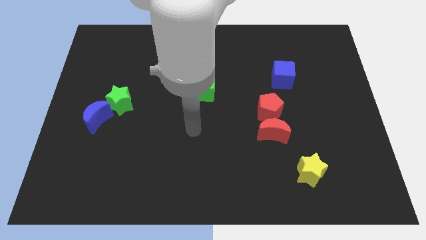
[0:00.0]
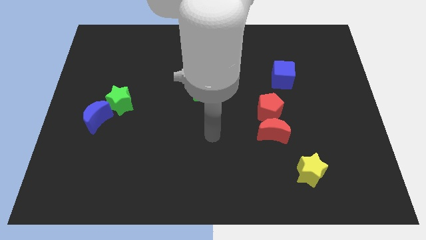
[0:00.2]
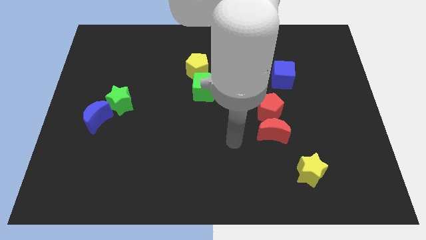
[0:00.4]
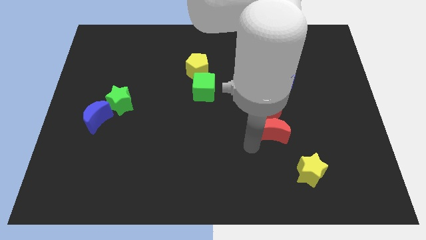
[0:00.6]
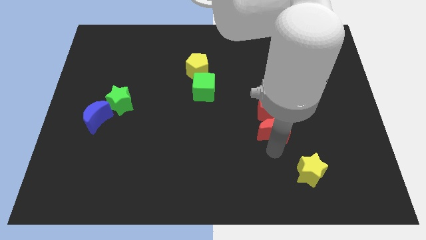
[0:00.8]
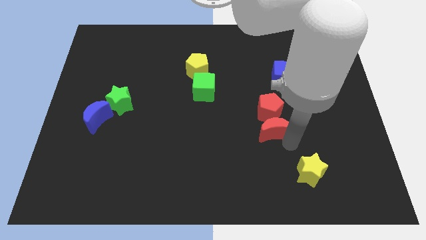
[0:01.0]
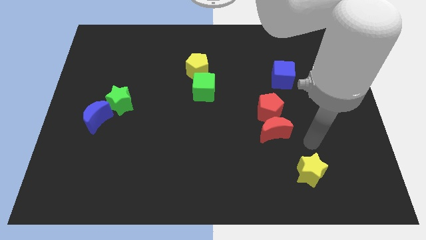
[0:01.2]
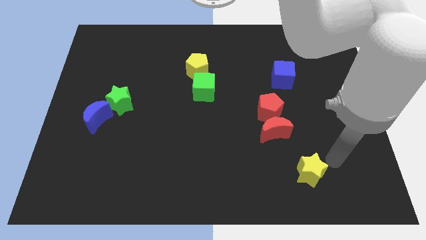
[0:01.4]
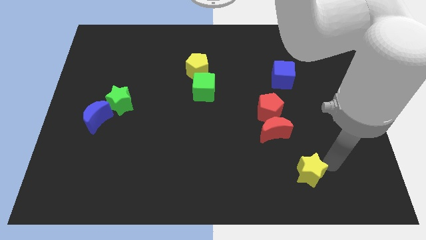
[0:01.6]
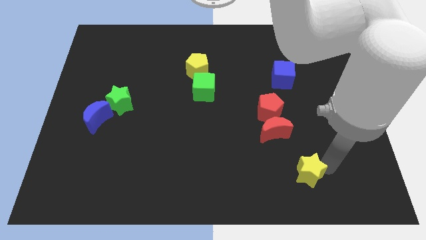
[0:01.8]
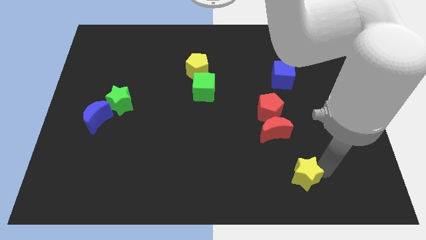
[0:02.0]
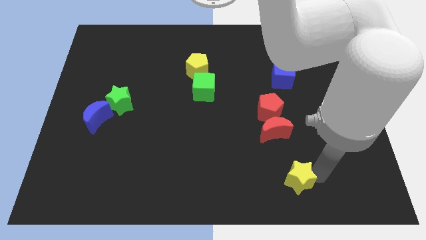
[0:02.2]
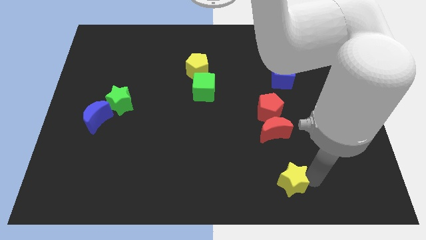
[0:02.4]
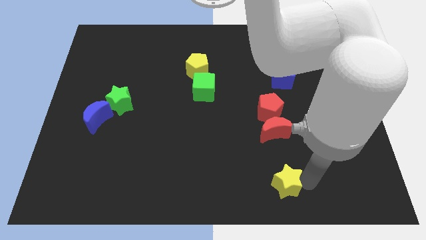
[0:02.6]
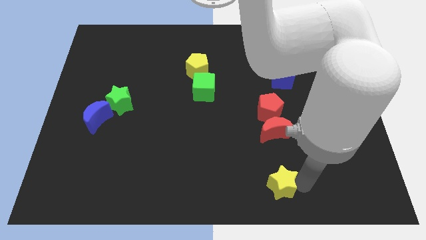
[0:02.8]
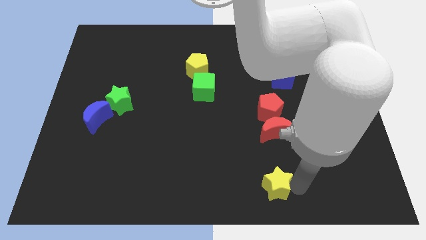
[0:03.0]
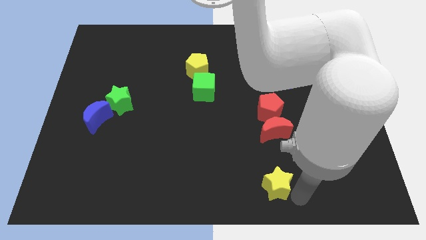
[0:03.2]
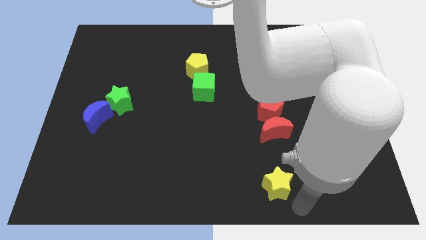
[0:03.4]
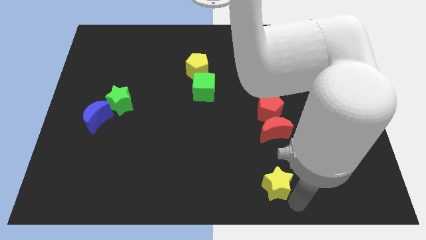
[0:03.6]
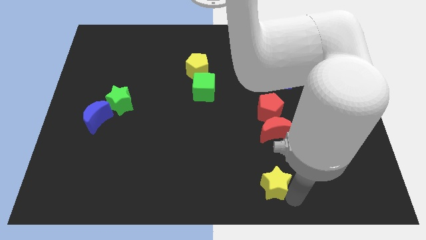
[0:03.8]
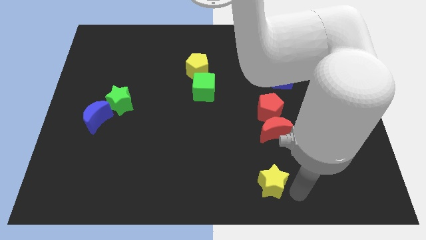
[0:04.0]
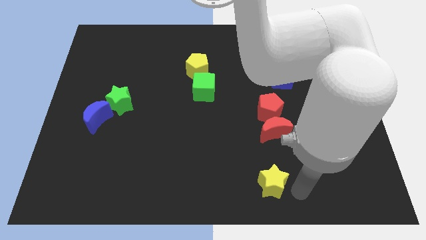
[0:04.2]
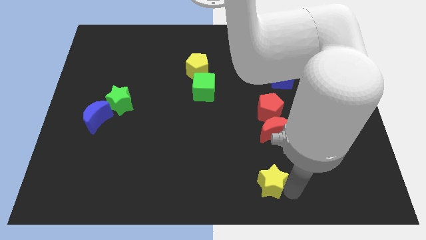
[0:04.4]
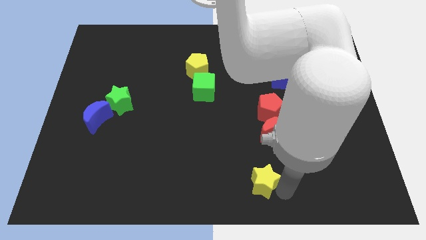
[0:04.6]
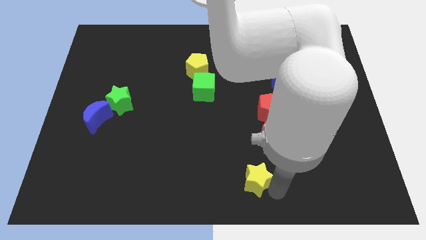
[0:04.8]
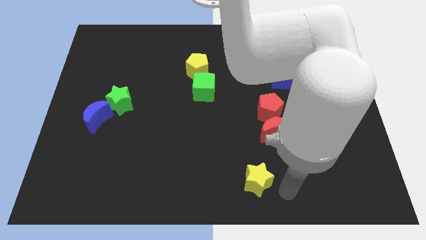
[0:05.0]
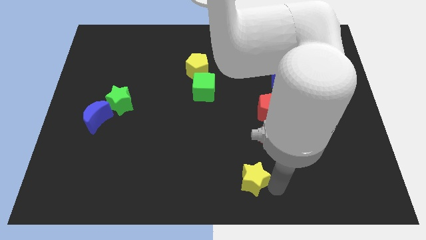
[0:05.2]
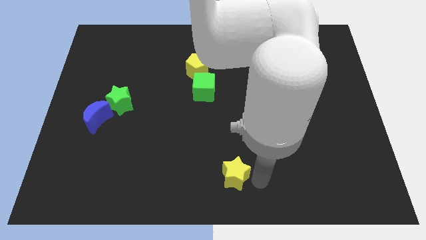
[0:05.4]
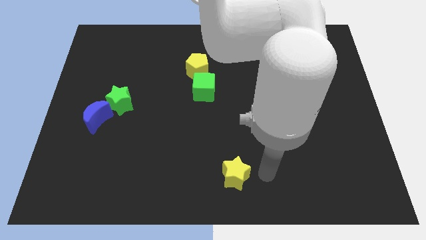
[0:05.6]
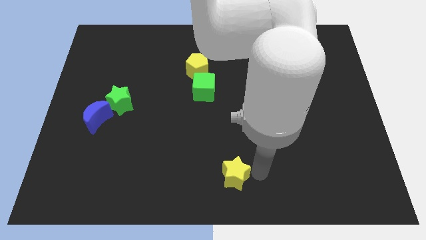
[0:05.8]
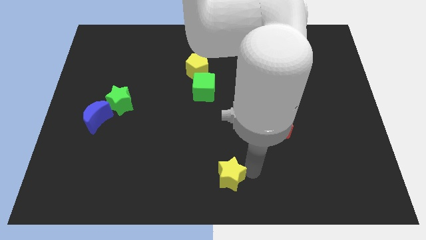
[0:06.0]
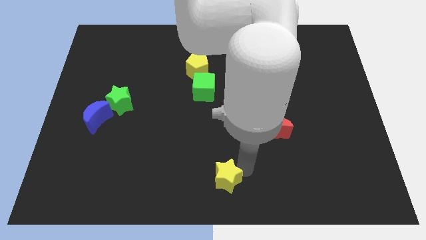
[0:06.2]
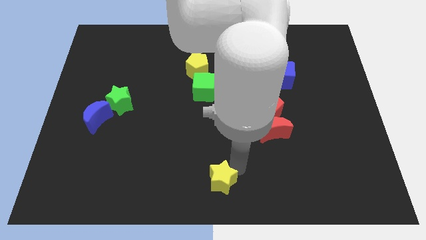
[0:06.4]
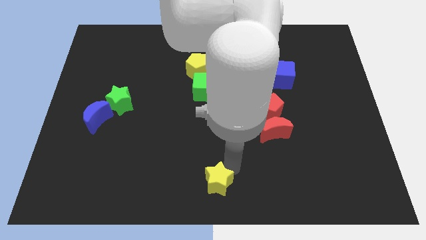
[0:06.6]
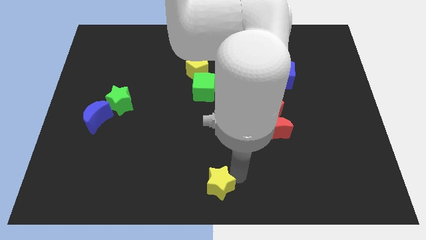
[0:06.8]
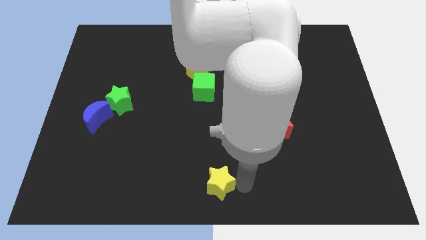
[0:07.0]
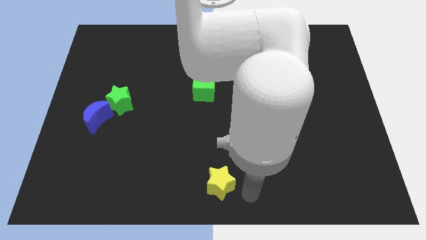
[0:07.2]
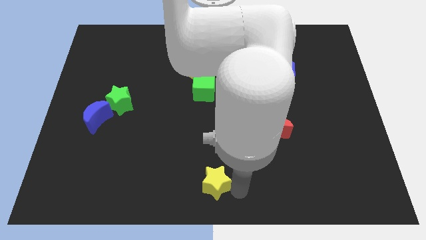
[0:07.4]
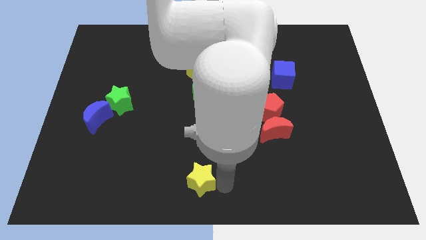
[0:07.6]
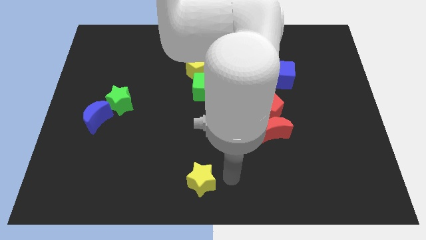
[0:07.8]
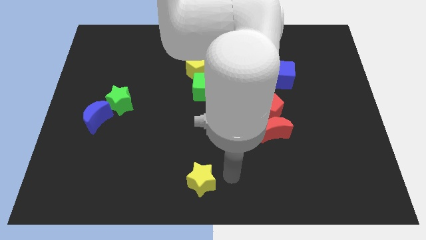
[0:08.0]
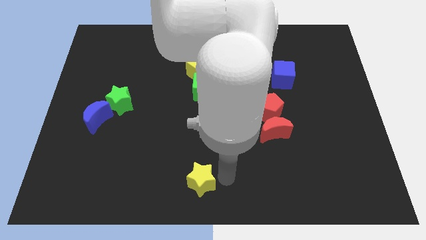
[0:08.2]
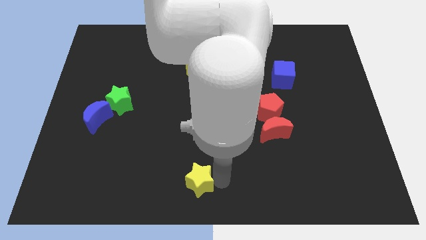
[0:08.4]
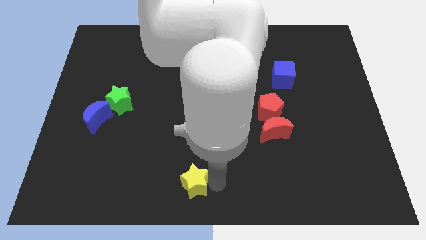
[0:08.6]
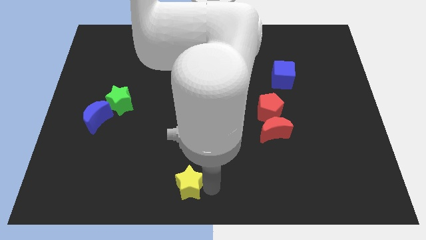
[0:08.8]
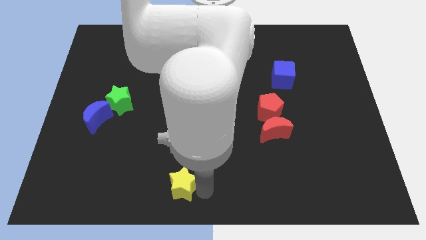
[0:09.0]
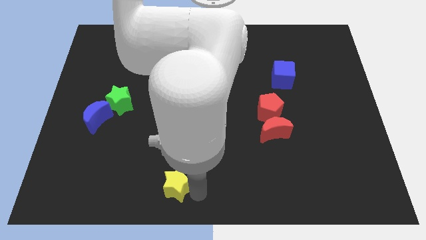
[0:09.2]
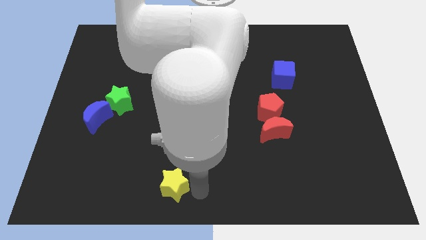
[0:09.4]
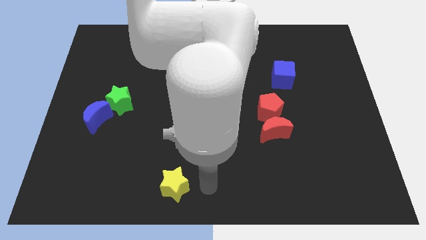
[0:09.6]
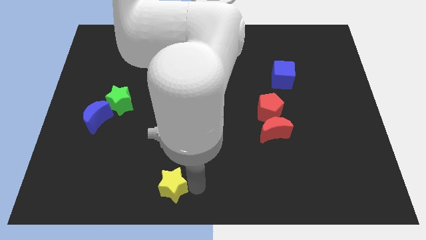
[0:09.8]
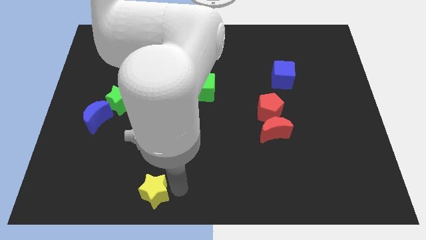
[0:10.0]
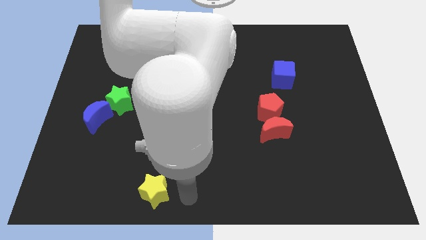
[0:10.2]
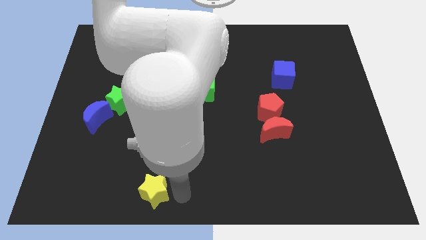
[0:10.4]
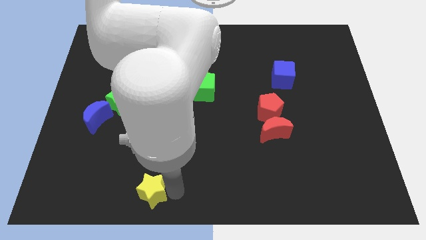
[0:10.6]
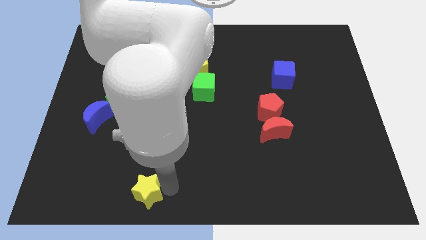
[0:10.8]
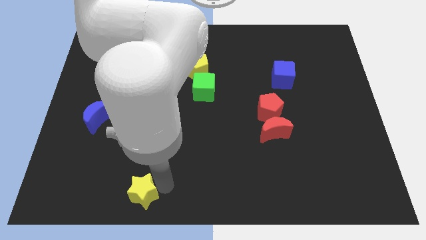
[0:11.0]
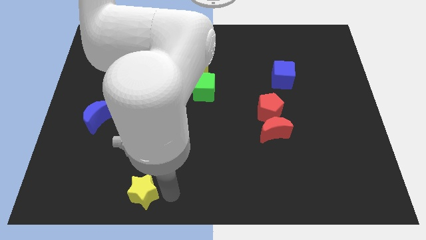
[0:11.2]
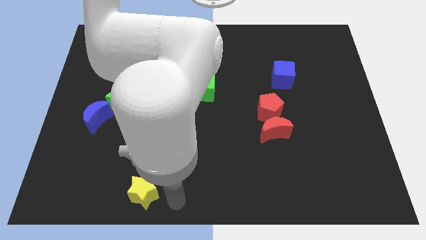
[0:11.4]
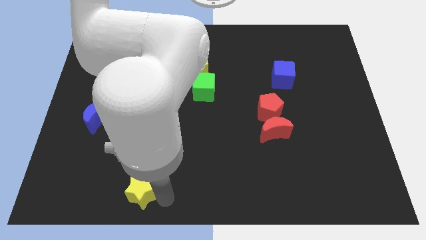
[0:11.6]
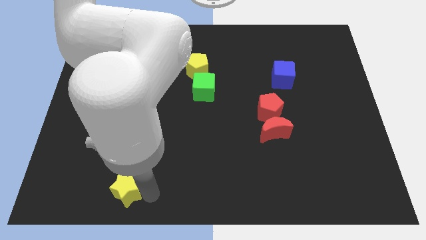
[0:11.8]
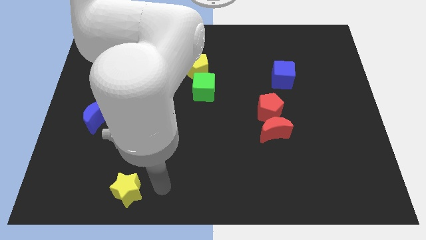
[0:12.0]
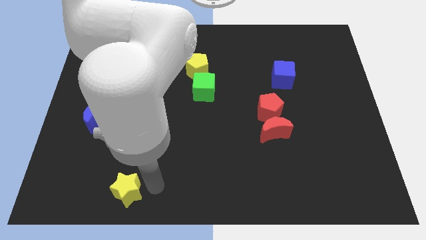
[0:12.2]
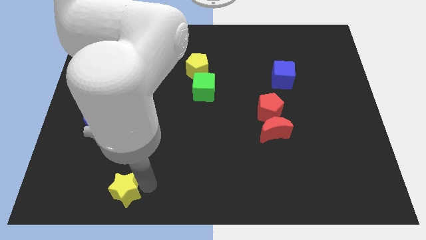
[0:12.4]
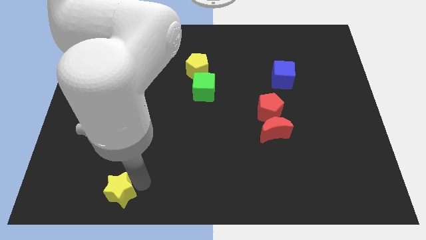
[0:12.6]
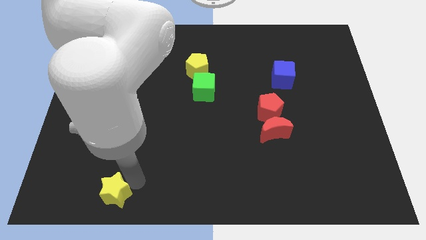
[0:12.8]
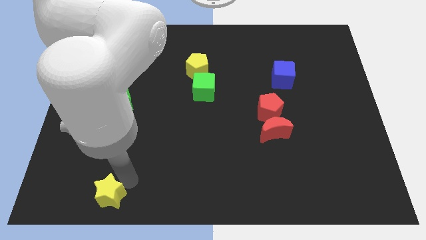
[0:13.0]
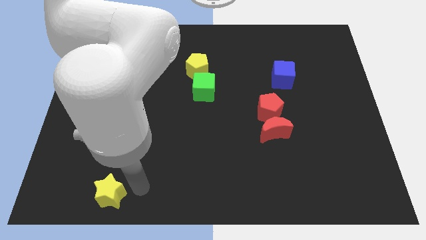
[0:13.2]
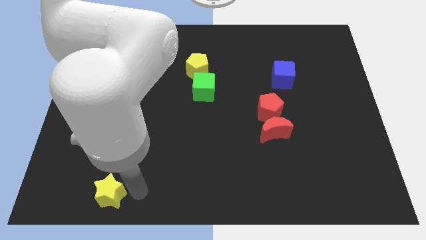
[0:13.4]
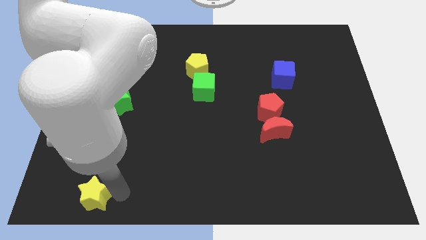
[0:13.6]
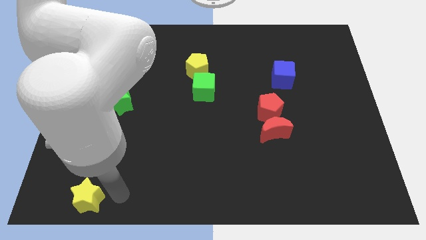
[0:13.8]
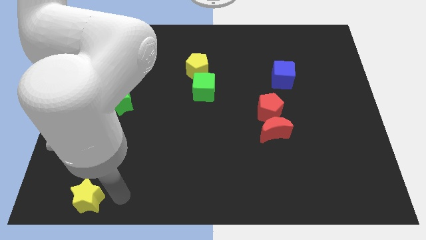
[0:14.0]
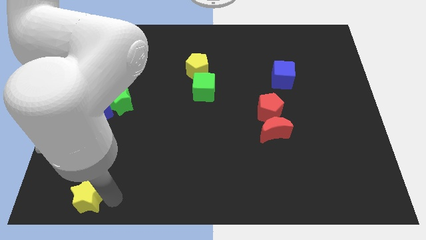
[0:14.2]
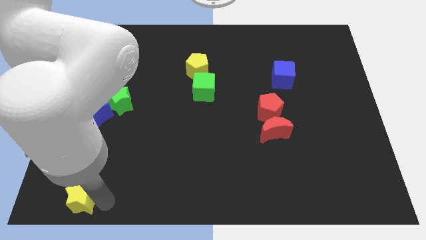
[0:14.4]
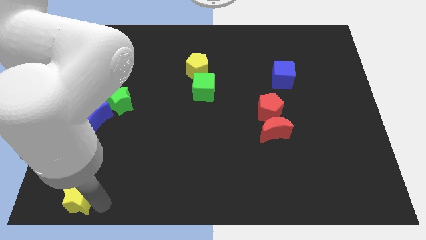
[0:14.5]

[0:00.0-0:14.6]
move the yellow star to the bottom left of the board
